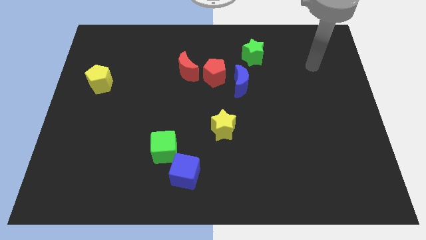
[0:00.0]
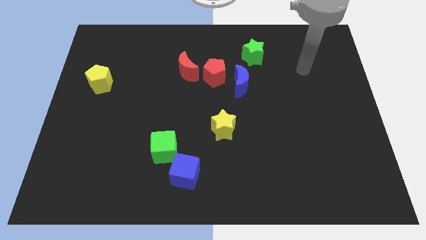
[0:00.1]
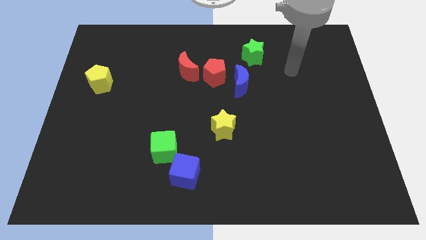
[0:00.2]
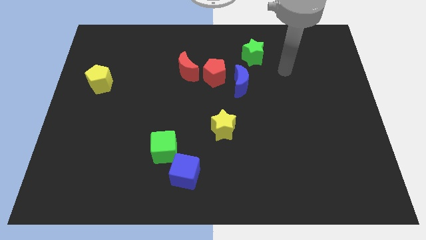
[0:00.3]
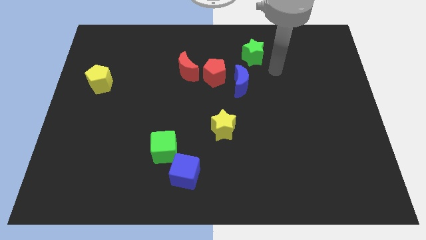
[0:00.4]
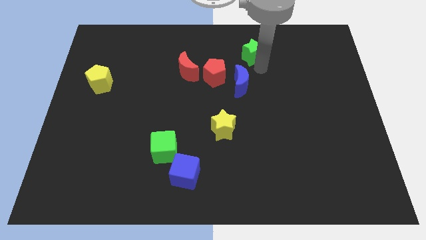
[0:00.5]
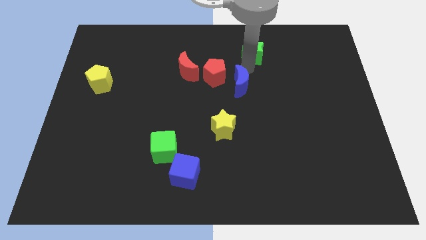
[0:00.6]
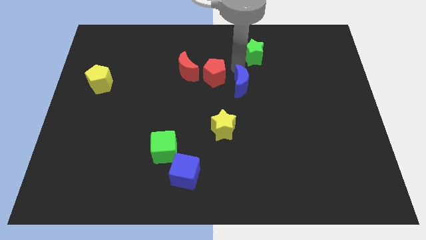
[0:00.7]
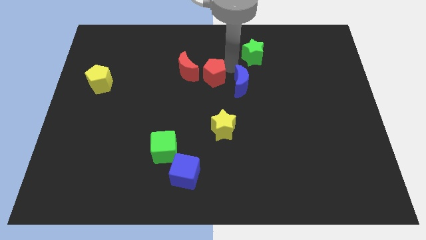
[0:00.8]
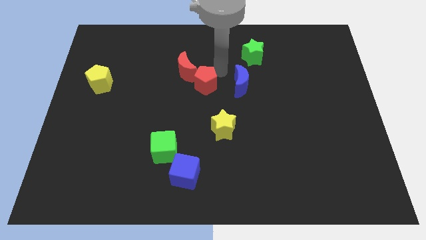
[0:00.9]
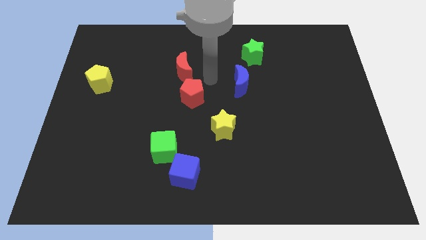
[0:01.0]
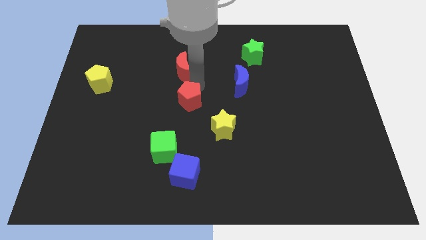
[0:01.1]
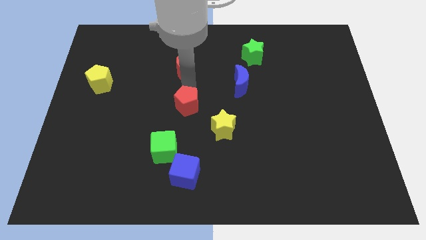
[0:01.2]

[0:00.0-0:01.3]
separate the red moon from the red pentagon

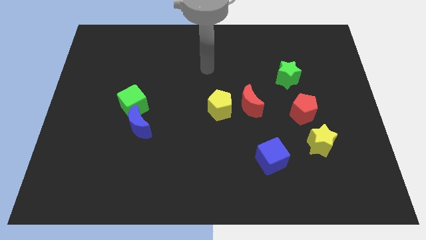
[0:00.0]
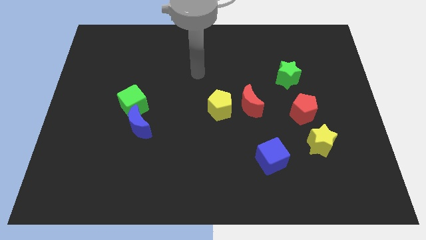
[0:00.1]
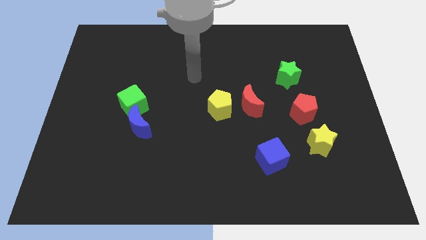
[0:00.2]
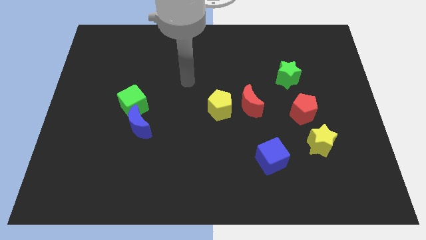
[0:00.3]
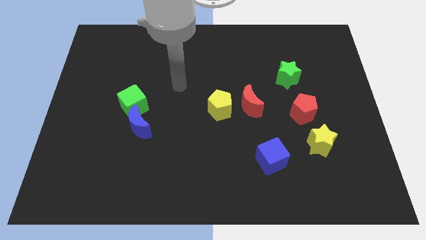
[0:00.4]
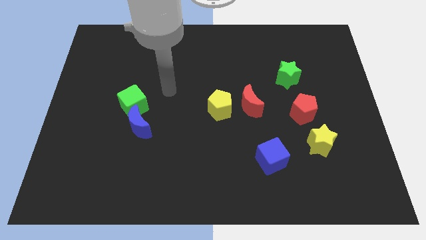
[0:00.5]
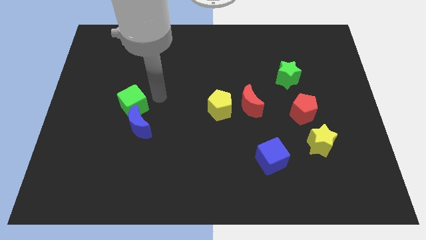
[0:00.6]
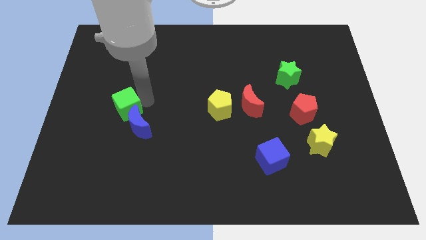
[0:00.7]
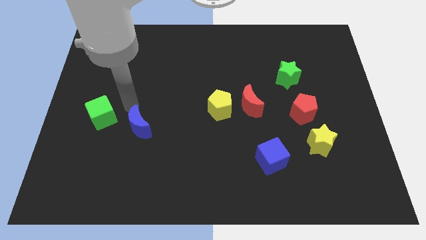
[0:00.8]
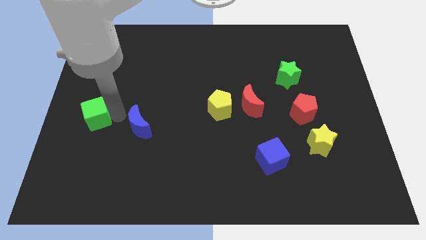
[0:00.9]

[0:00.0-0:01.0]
pull the blue moon apart from the green cube

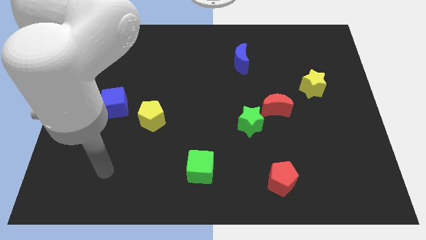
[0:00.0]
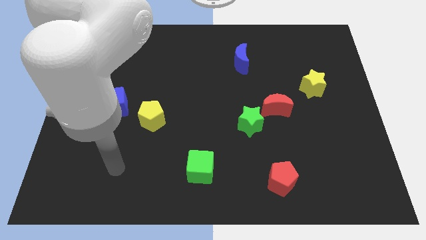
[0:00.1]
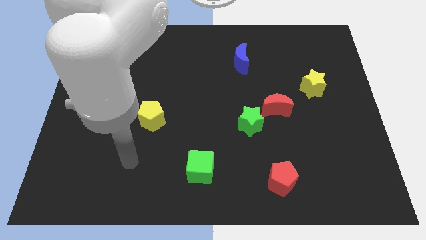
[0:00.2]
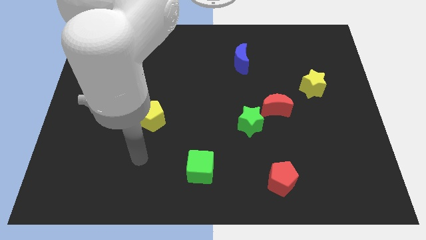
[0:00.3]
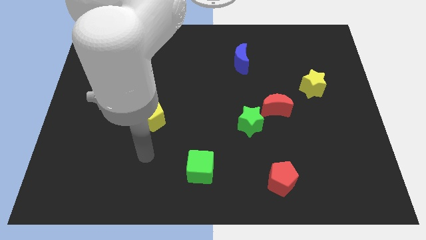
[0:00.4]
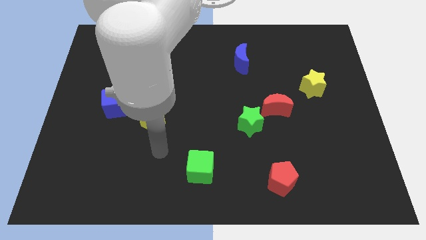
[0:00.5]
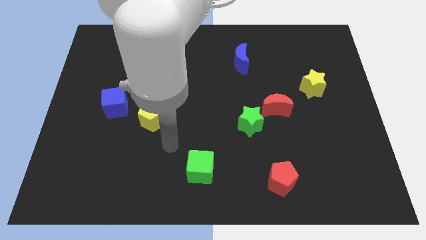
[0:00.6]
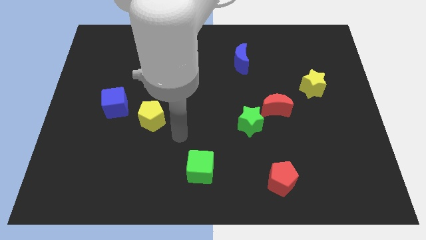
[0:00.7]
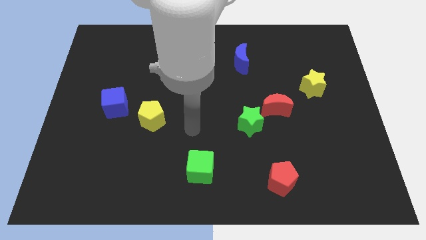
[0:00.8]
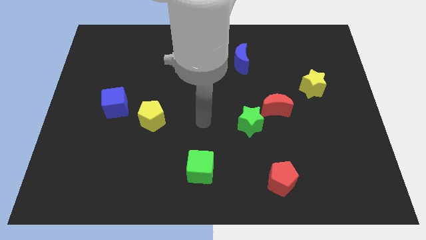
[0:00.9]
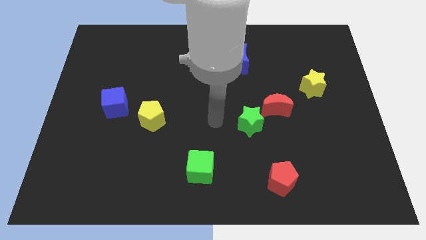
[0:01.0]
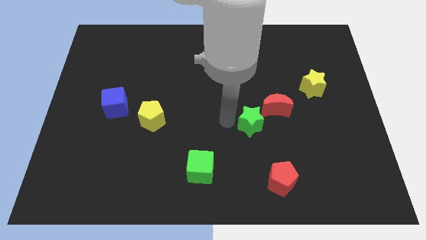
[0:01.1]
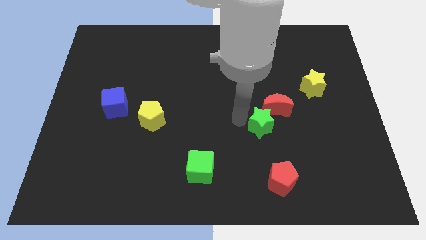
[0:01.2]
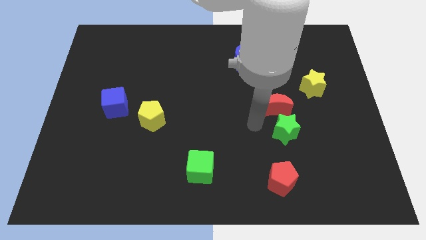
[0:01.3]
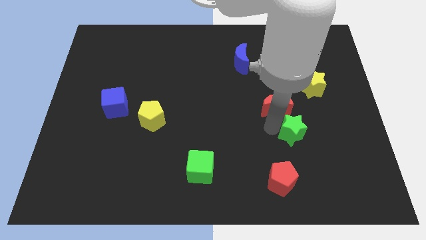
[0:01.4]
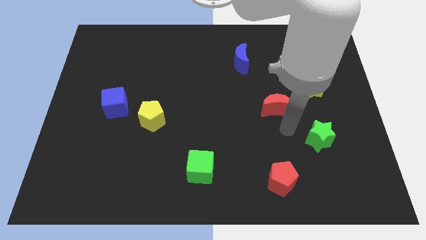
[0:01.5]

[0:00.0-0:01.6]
move the red moon away from the green star

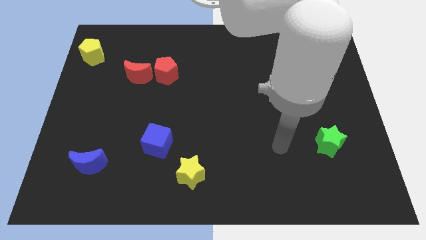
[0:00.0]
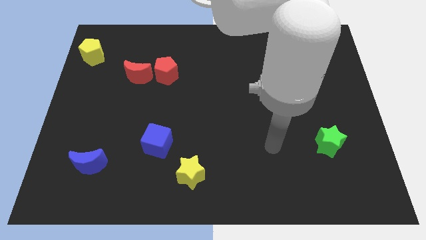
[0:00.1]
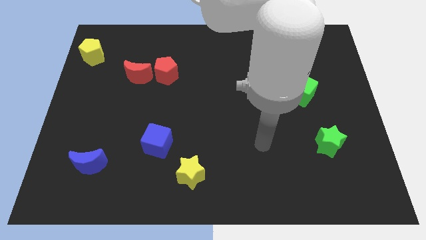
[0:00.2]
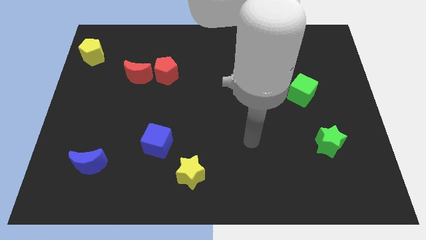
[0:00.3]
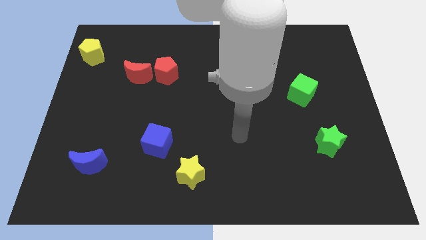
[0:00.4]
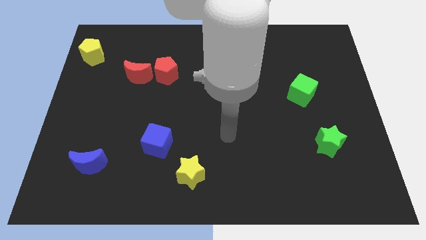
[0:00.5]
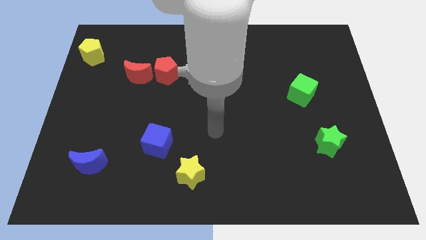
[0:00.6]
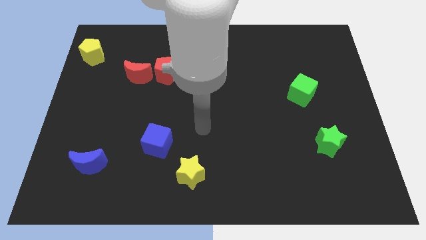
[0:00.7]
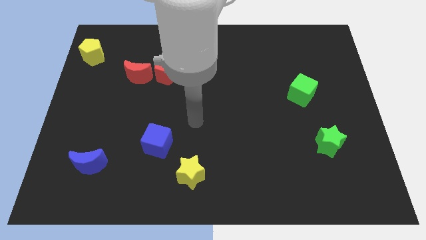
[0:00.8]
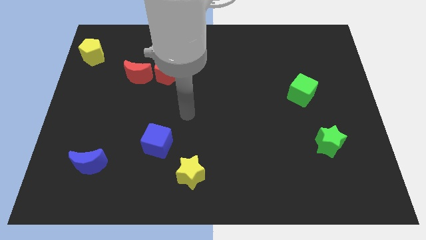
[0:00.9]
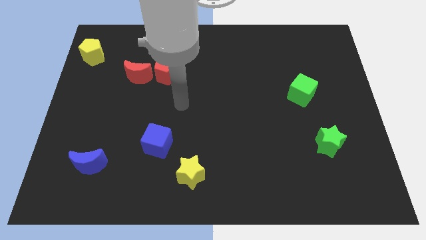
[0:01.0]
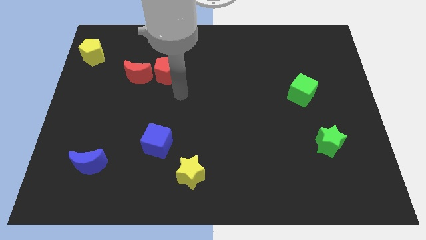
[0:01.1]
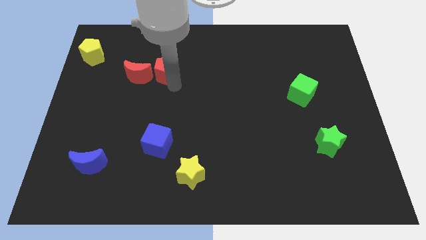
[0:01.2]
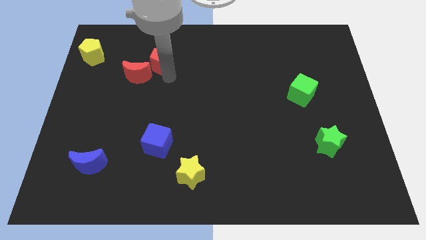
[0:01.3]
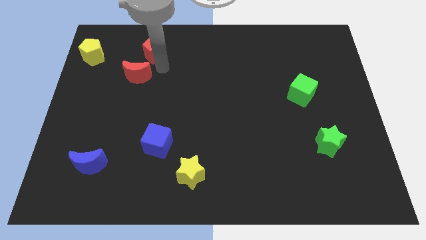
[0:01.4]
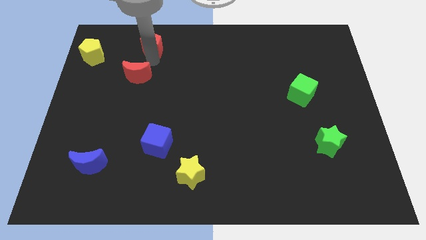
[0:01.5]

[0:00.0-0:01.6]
move the red moon away from the red pentagon

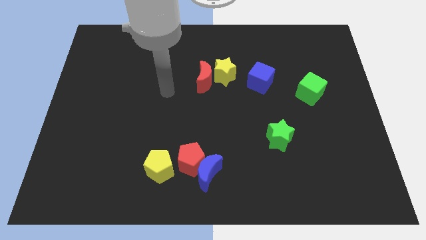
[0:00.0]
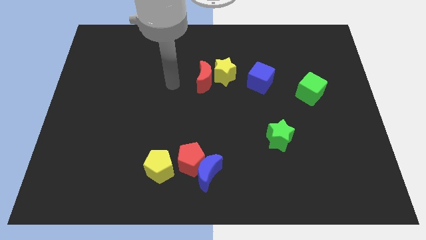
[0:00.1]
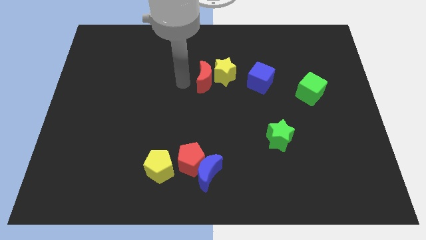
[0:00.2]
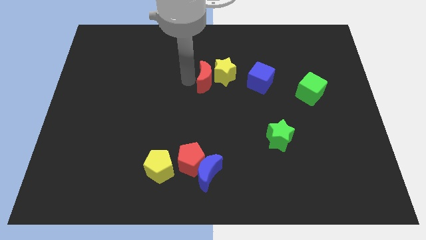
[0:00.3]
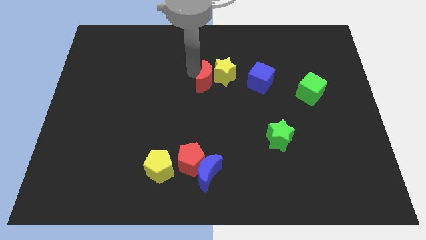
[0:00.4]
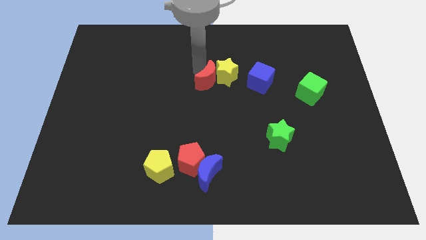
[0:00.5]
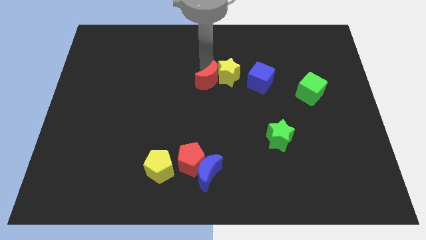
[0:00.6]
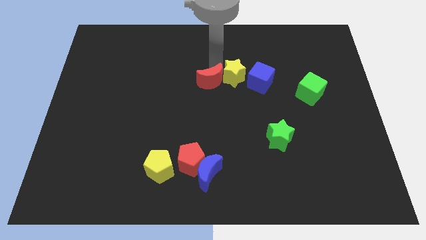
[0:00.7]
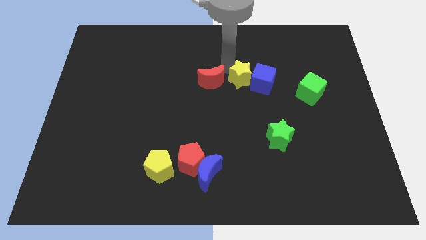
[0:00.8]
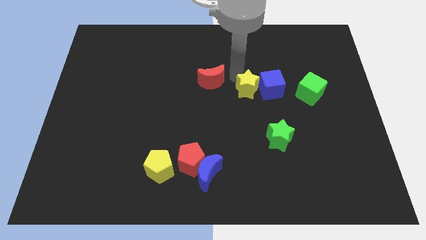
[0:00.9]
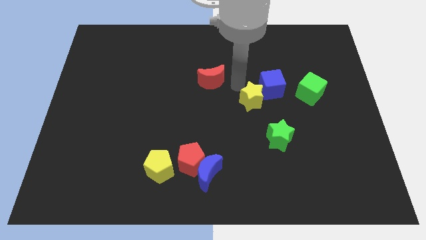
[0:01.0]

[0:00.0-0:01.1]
move the red moon away from the yellow star

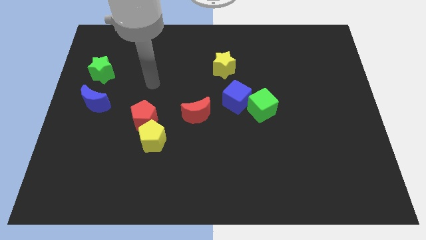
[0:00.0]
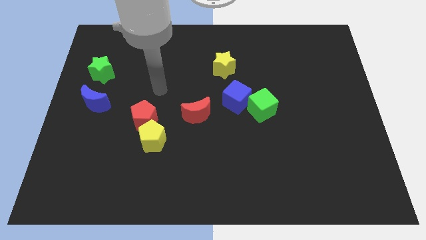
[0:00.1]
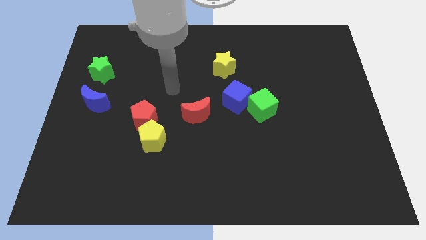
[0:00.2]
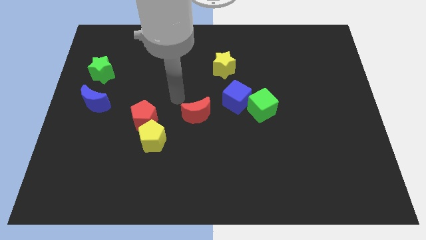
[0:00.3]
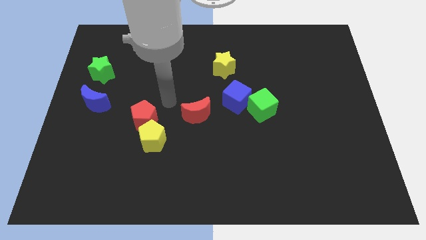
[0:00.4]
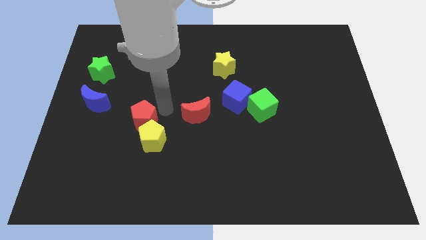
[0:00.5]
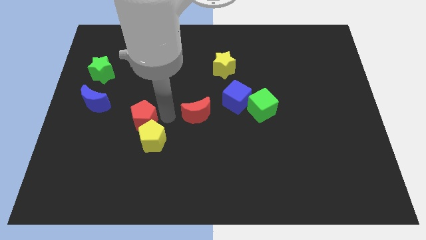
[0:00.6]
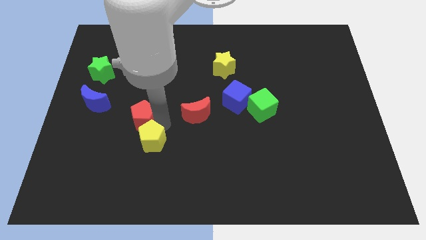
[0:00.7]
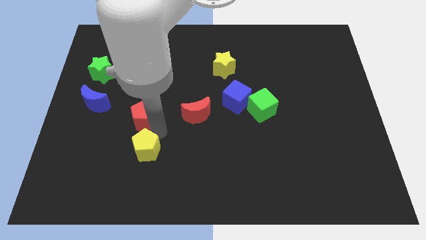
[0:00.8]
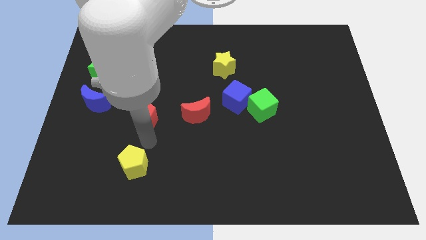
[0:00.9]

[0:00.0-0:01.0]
separate the red pentagon from the yellow pentagon

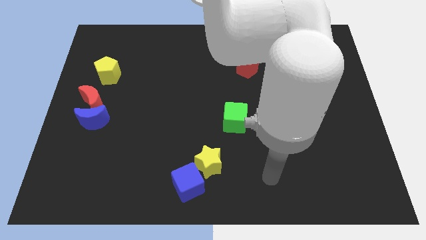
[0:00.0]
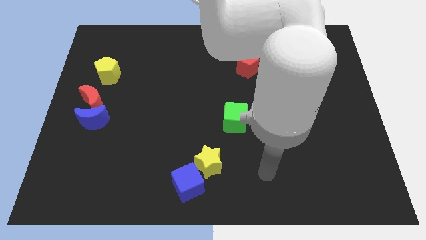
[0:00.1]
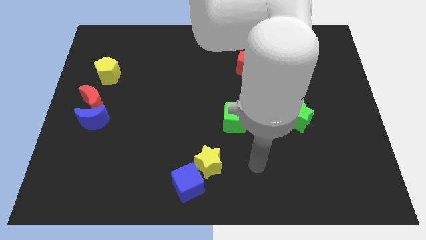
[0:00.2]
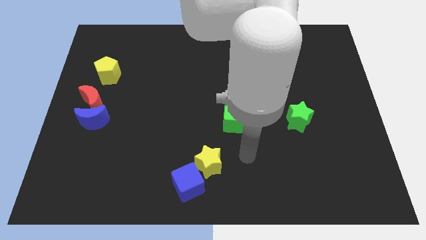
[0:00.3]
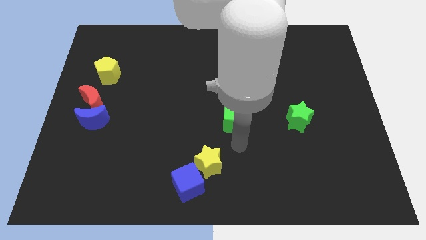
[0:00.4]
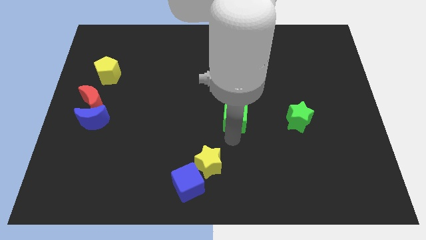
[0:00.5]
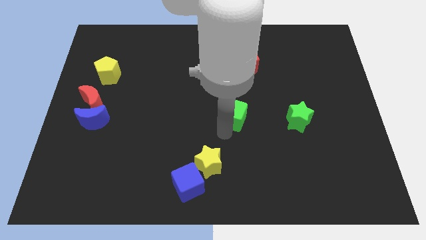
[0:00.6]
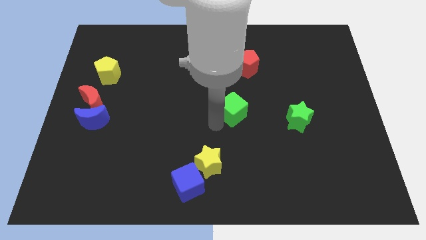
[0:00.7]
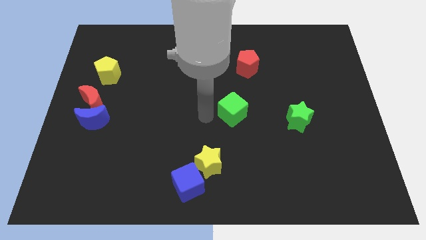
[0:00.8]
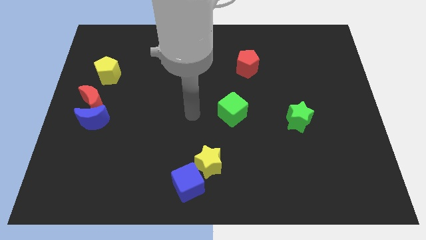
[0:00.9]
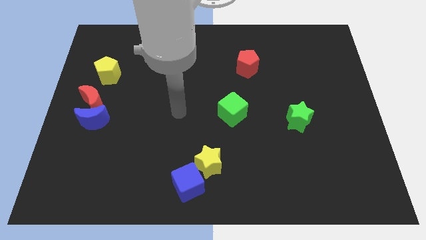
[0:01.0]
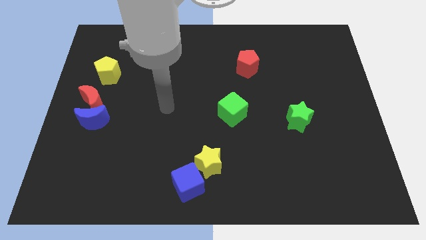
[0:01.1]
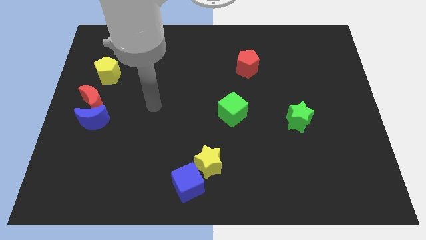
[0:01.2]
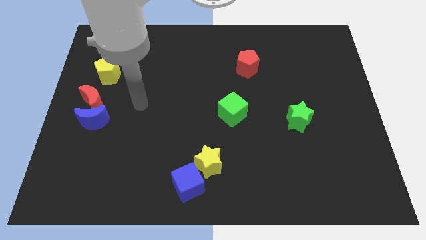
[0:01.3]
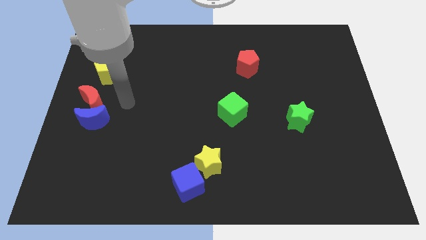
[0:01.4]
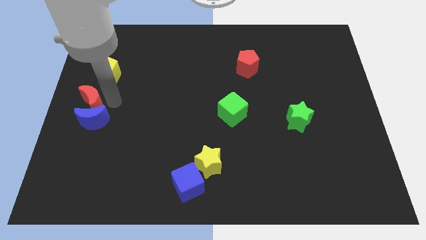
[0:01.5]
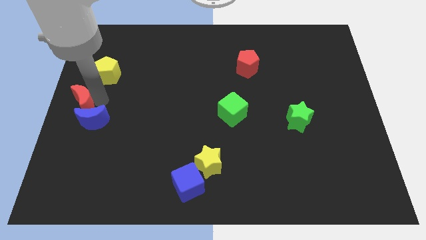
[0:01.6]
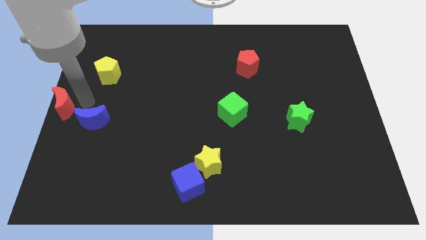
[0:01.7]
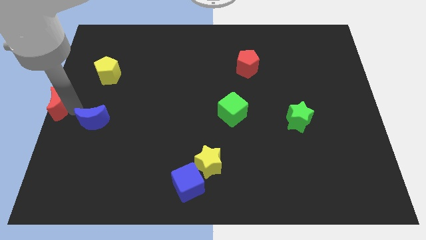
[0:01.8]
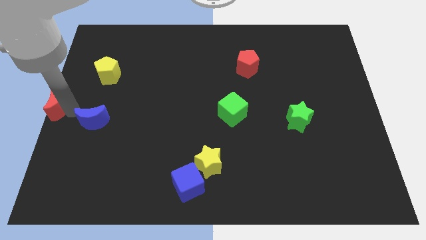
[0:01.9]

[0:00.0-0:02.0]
move the blue moon away from the red moon
